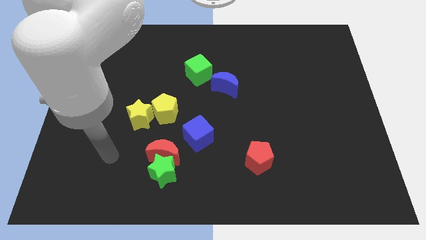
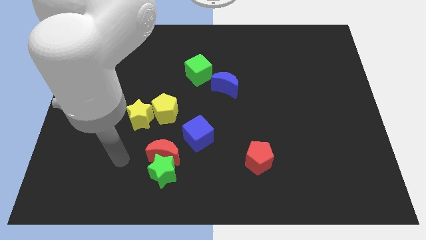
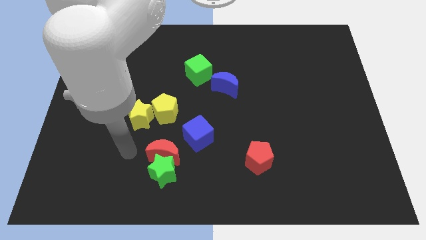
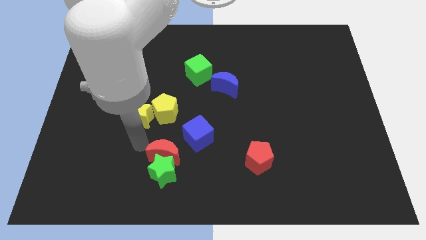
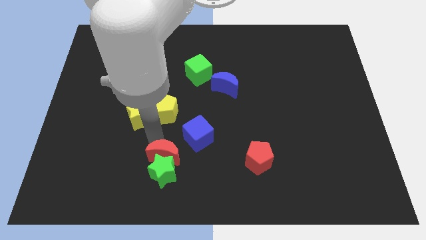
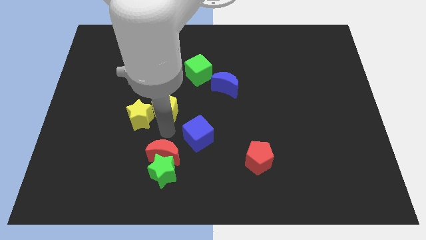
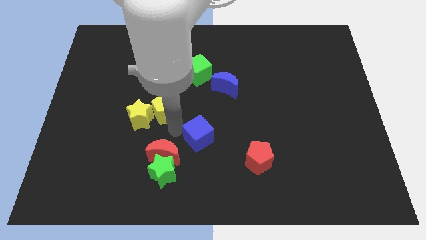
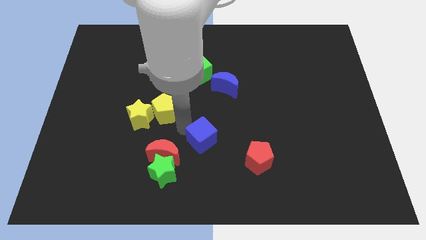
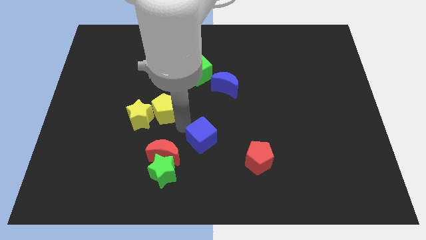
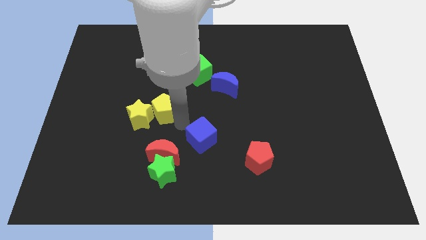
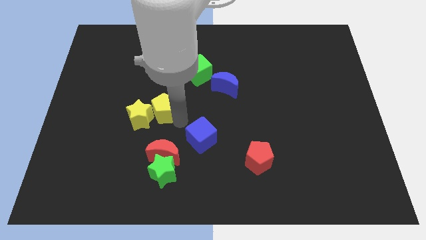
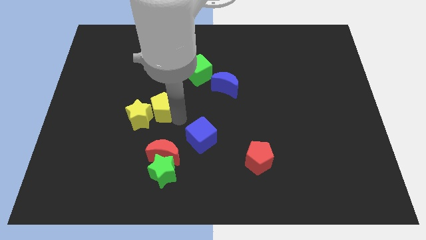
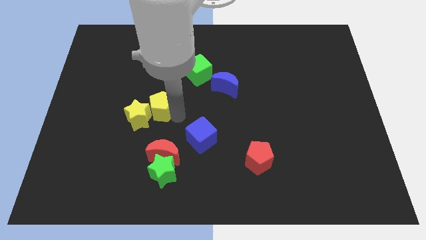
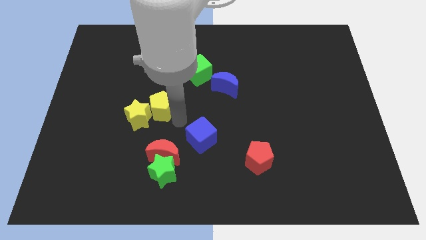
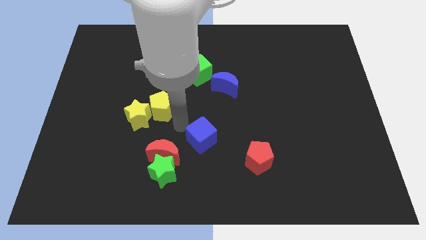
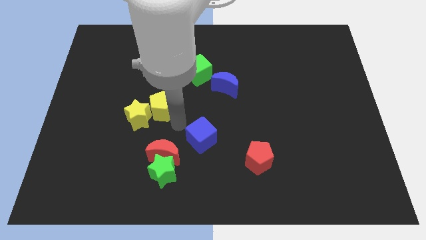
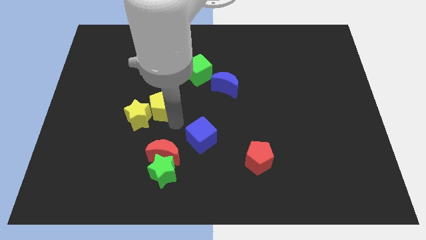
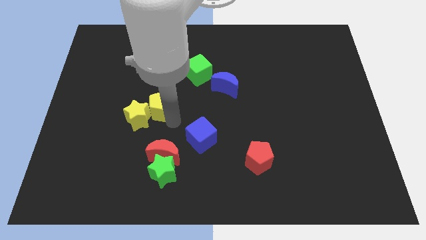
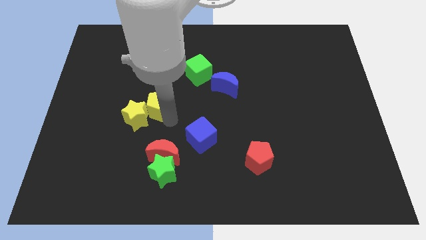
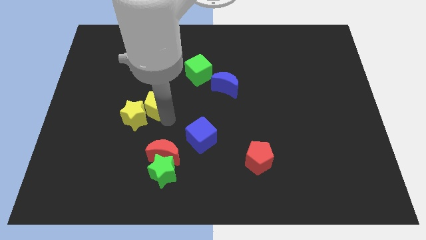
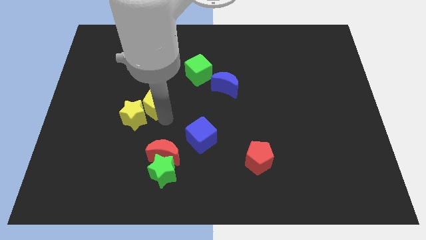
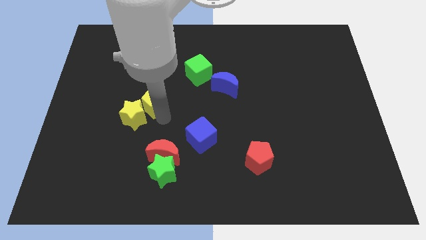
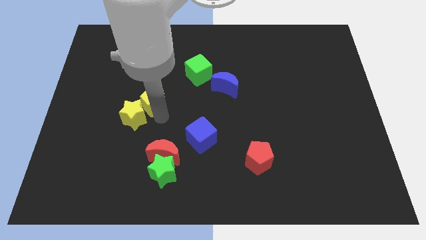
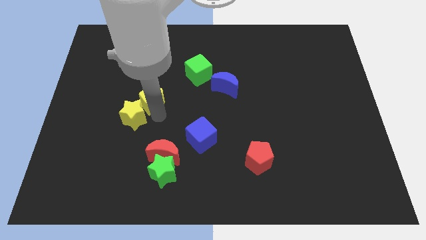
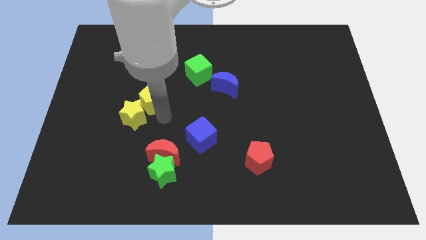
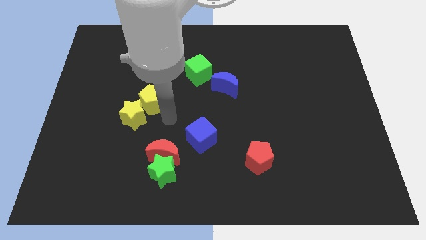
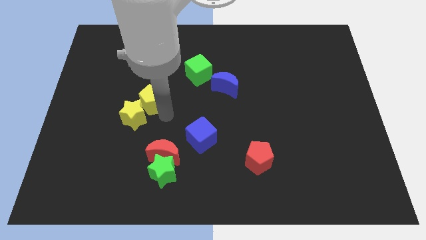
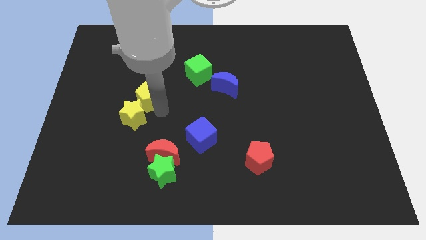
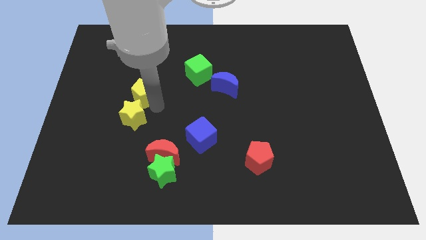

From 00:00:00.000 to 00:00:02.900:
slightly slide the yellow pentagon upwards and then to the left

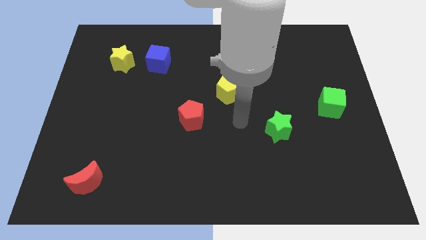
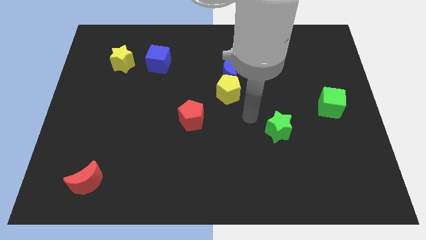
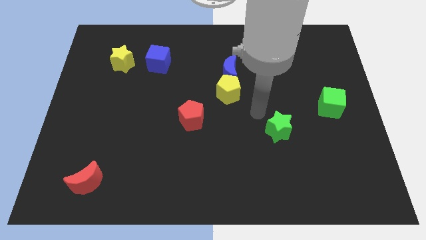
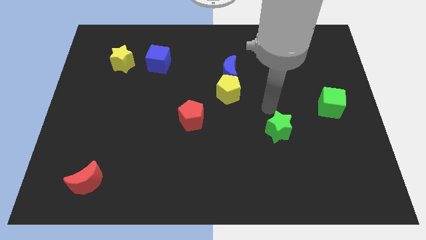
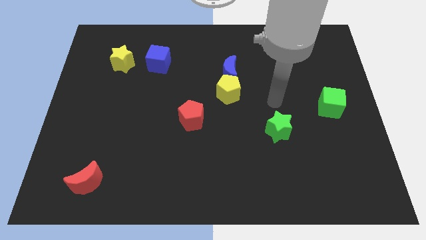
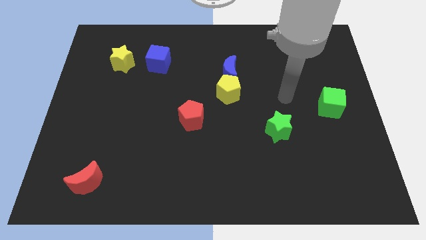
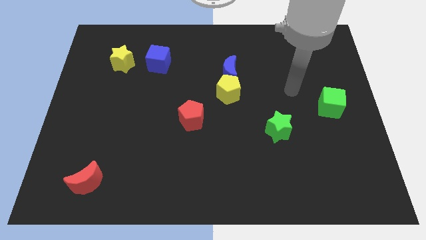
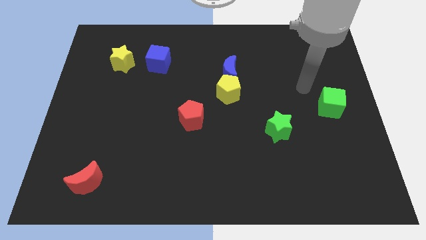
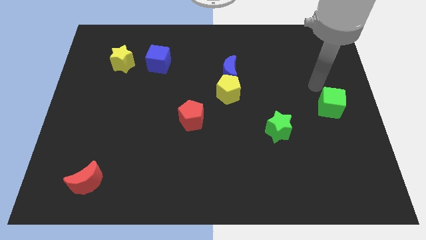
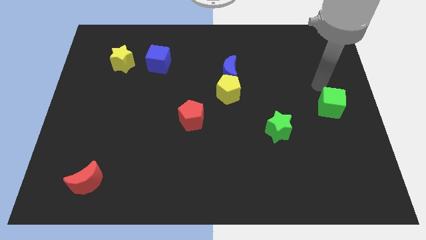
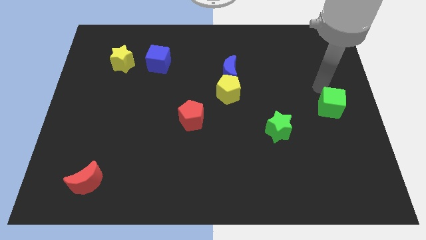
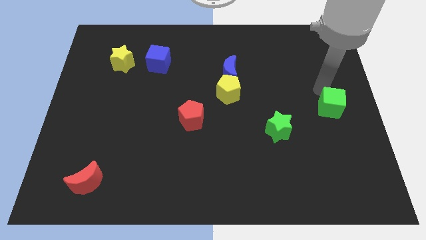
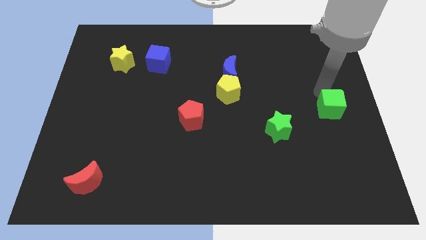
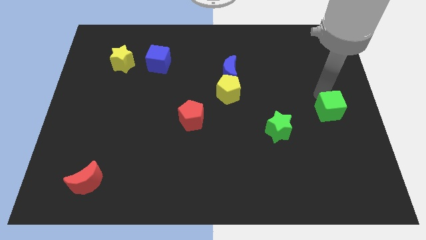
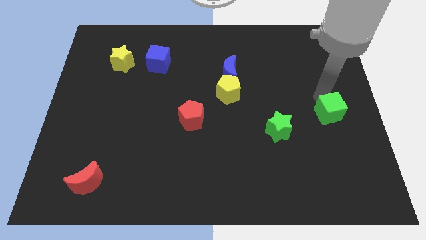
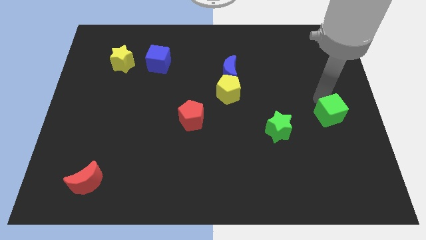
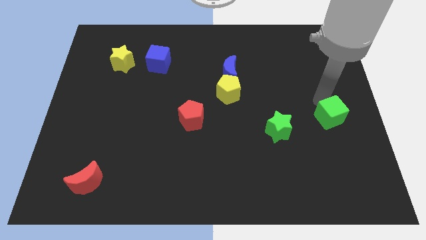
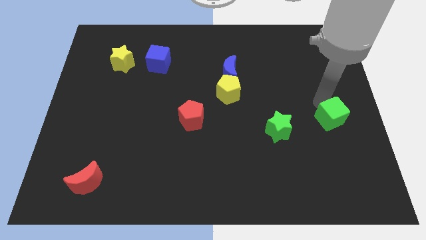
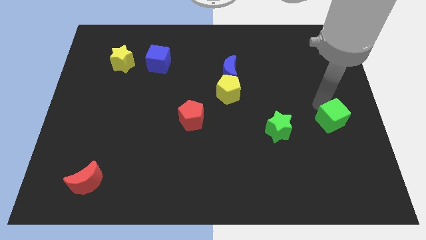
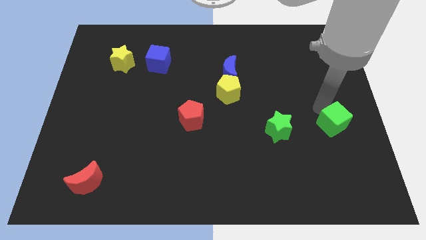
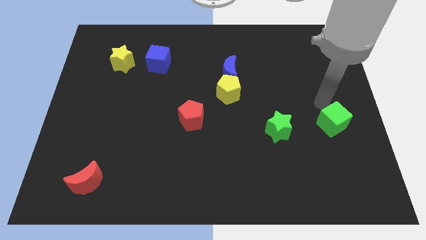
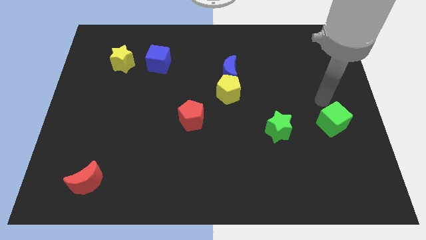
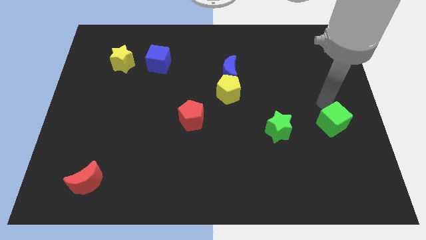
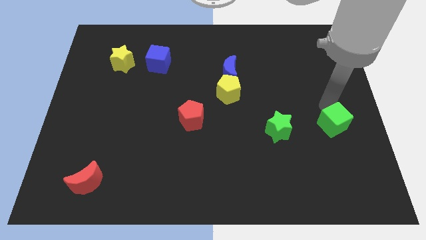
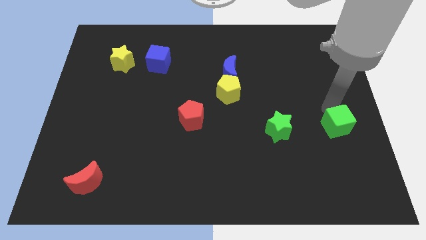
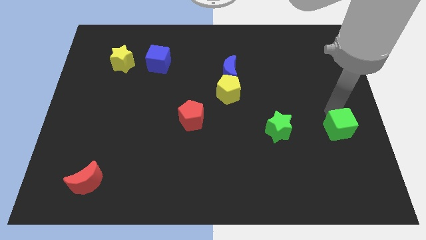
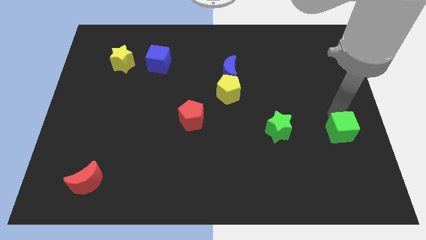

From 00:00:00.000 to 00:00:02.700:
move the green cube downwards a little bit

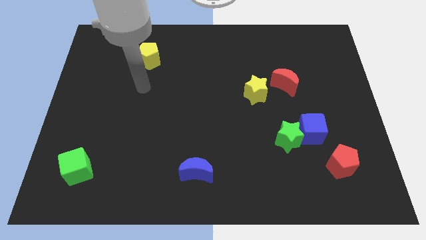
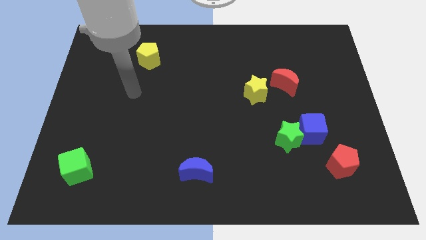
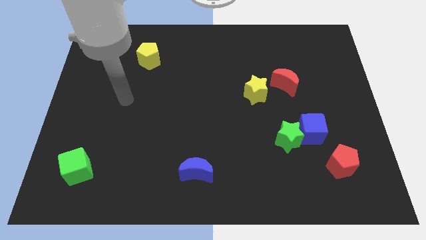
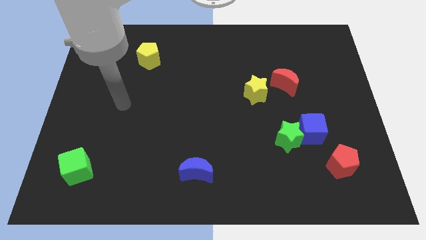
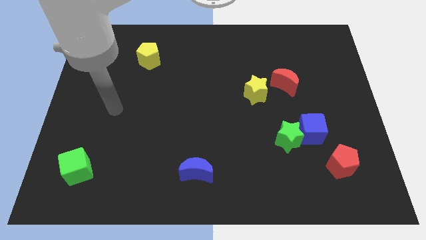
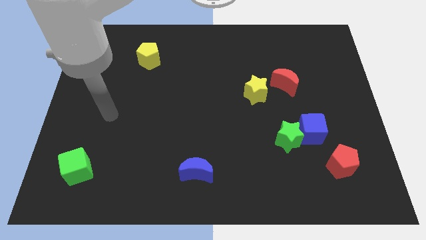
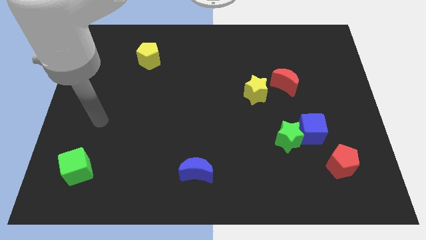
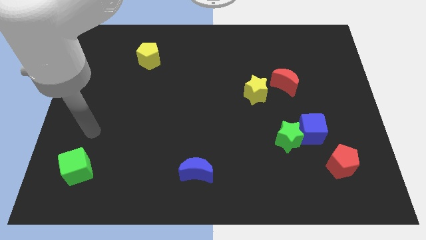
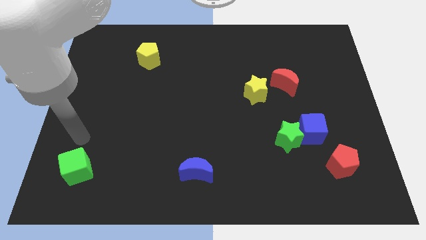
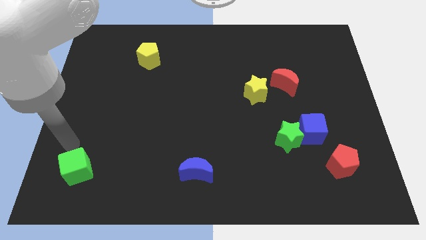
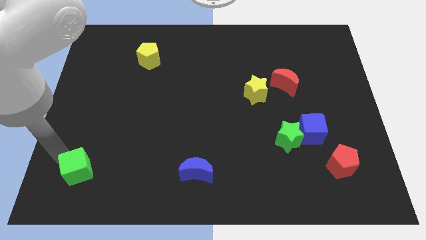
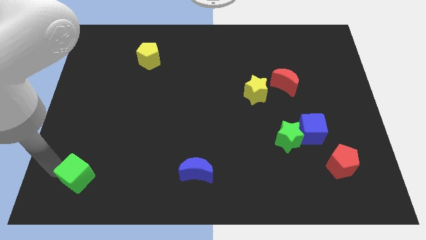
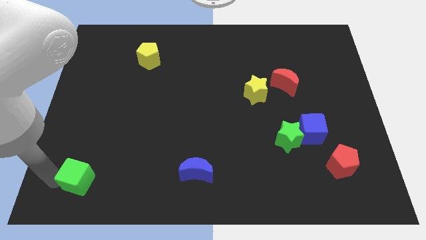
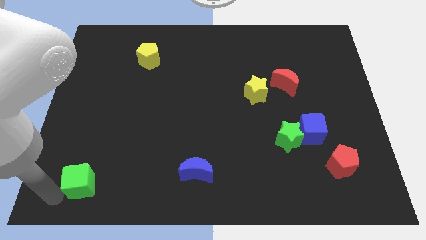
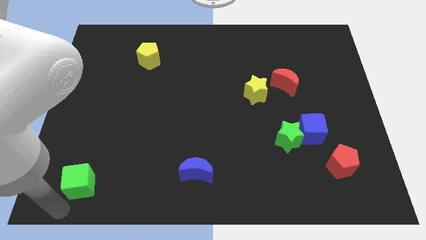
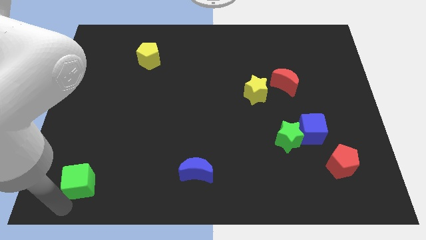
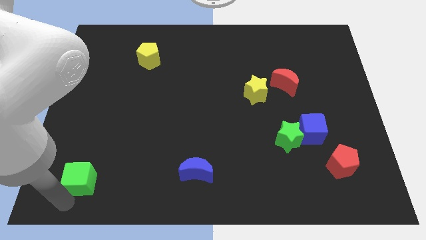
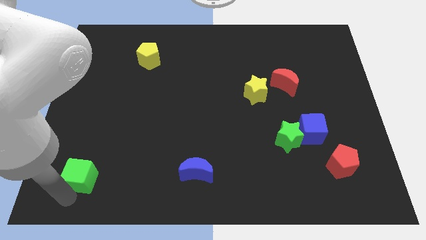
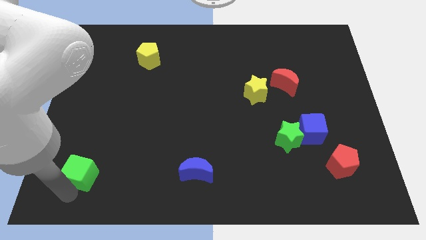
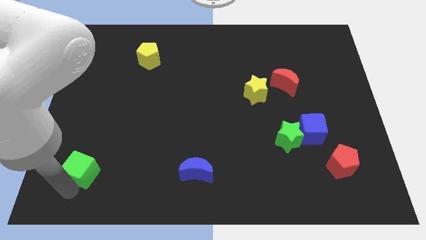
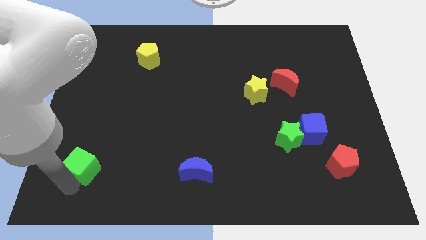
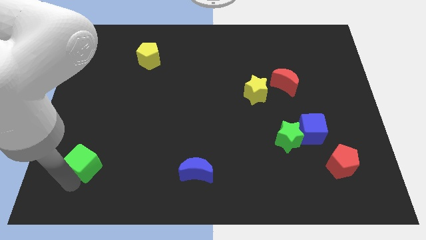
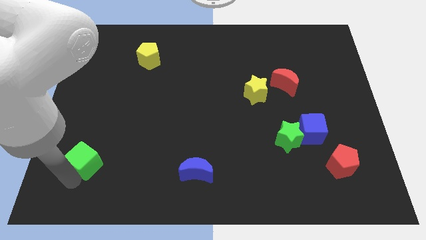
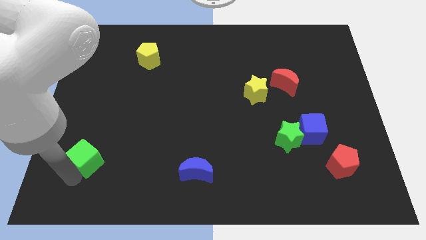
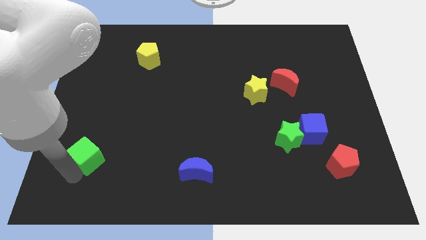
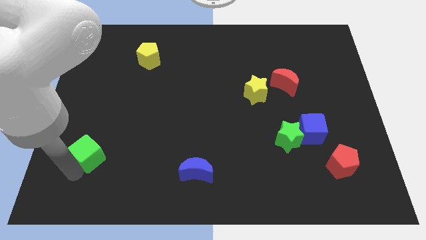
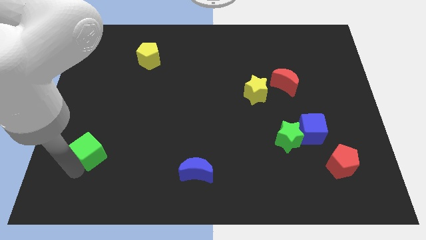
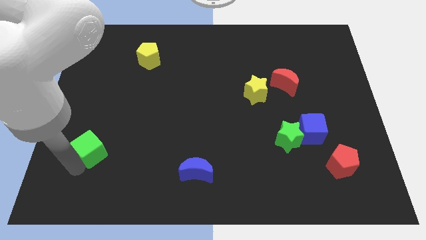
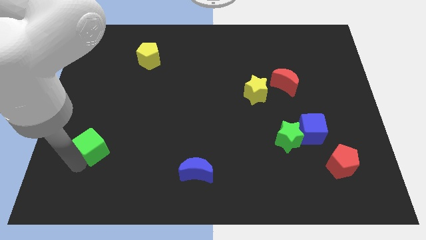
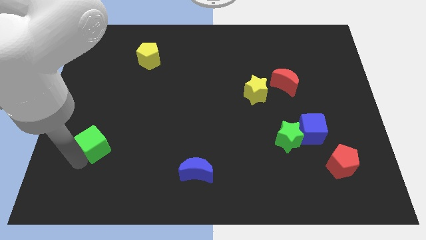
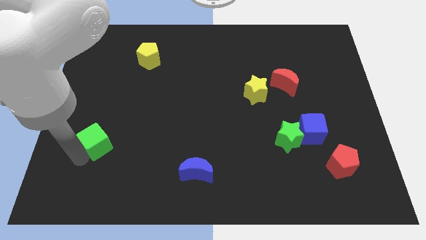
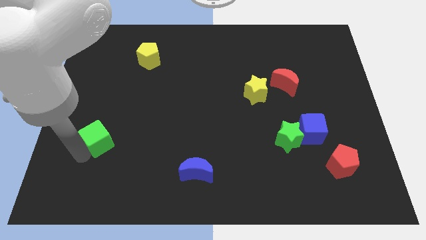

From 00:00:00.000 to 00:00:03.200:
slightly slide the green cube upwards and then to the right
